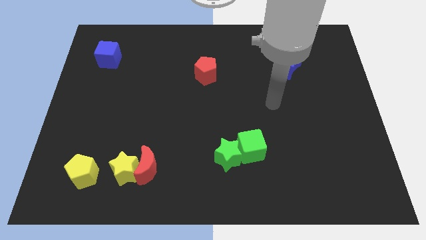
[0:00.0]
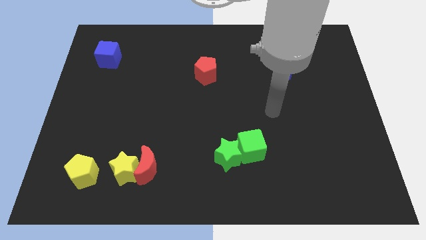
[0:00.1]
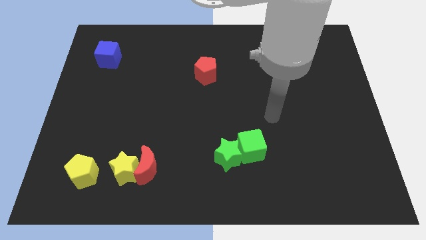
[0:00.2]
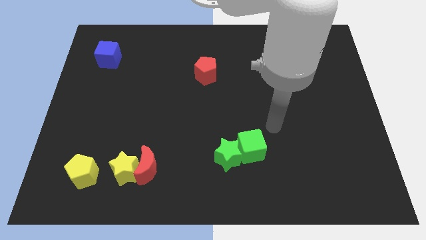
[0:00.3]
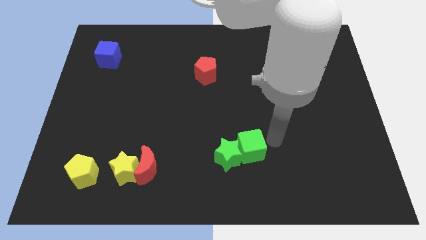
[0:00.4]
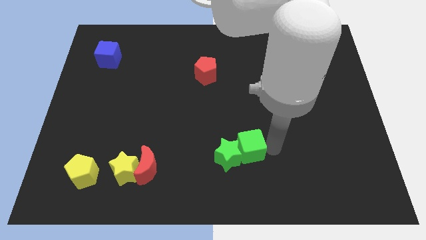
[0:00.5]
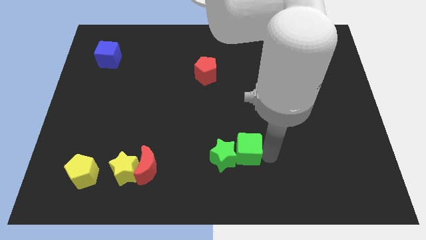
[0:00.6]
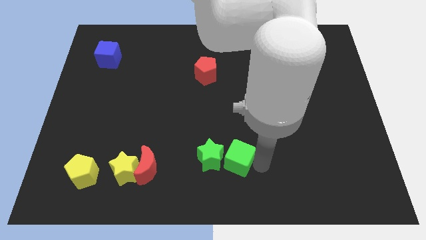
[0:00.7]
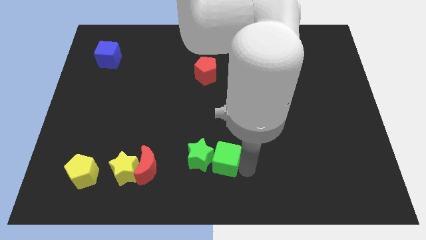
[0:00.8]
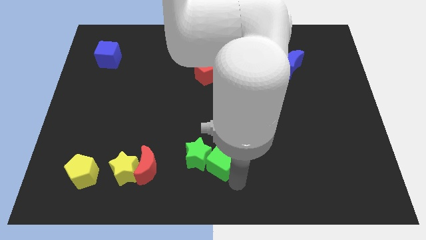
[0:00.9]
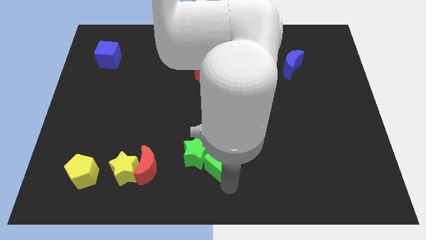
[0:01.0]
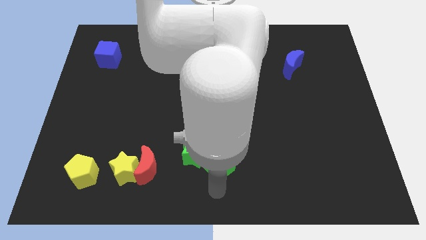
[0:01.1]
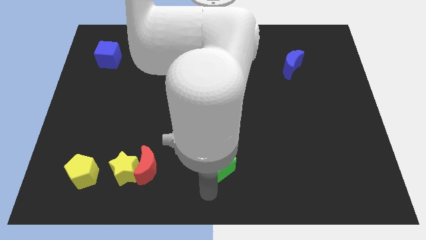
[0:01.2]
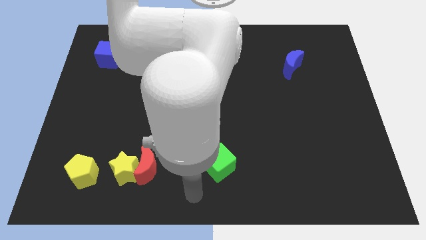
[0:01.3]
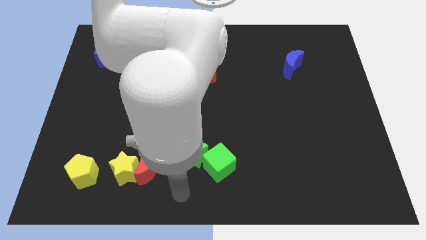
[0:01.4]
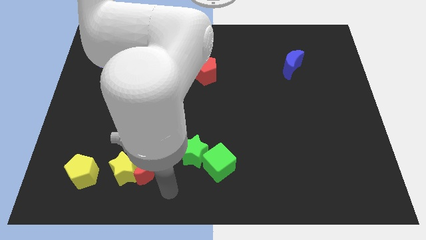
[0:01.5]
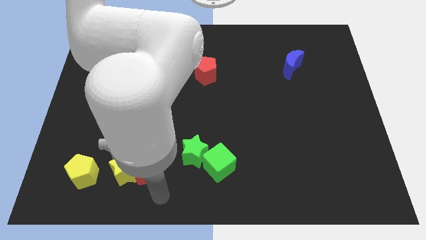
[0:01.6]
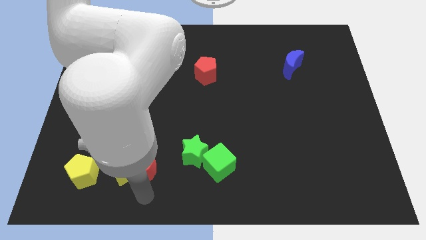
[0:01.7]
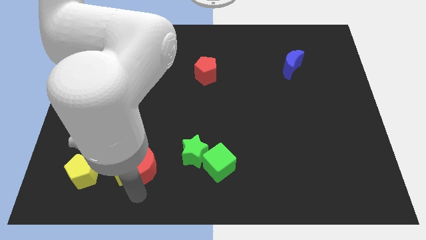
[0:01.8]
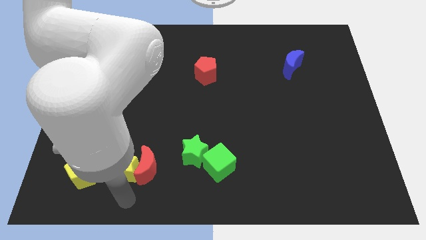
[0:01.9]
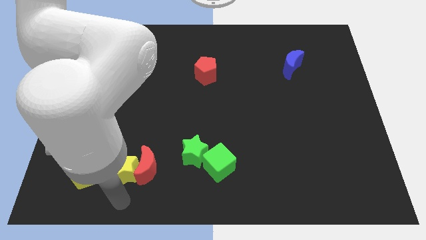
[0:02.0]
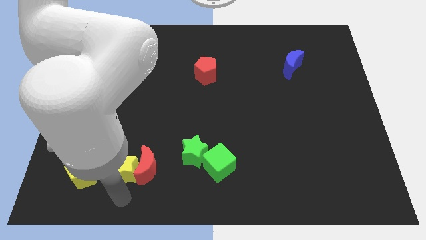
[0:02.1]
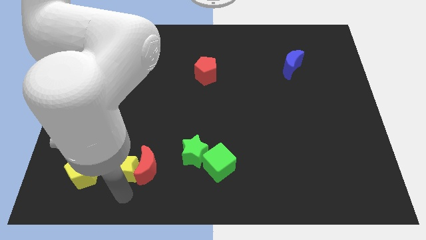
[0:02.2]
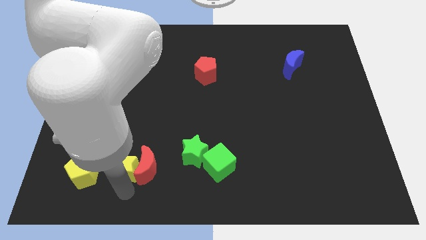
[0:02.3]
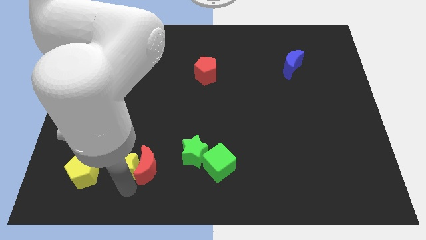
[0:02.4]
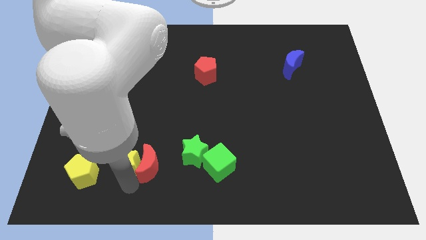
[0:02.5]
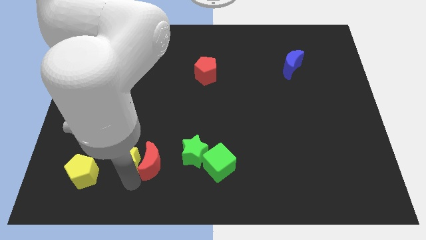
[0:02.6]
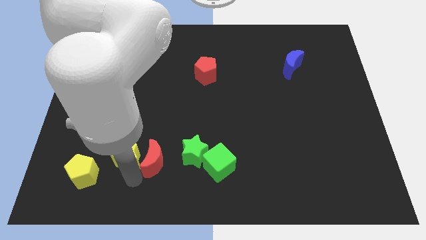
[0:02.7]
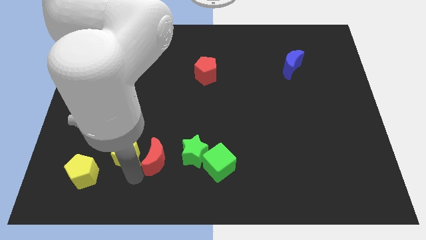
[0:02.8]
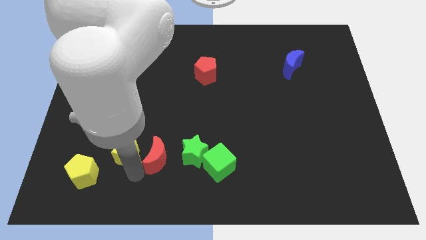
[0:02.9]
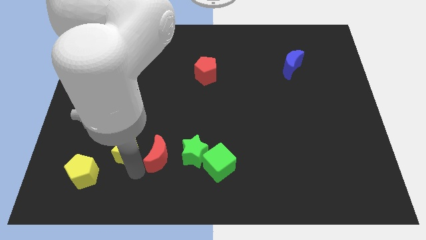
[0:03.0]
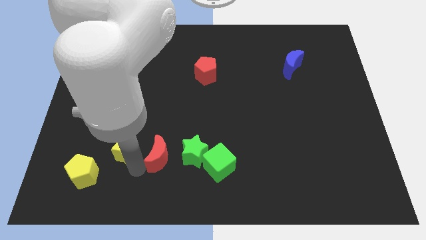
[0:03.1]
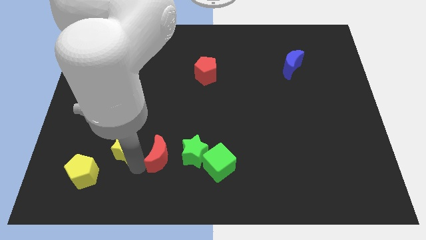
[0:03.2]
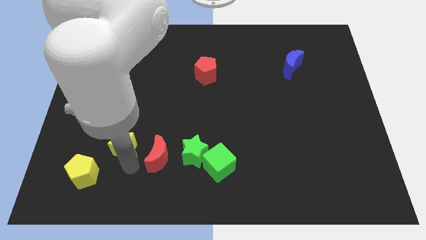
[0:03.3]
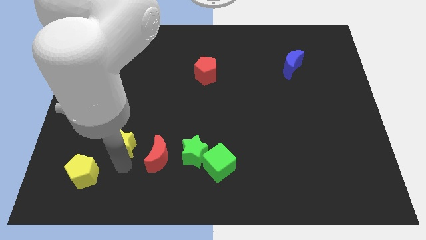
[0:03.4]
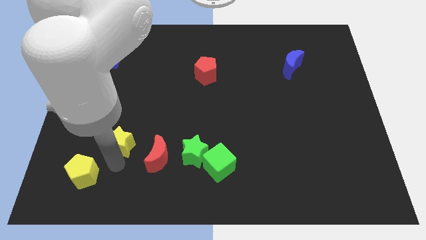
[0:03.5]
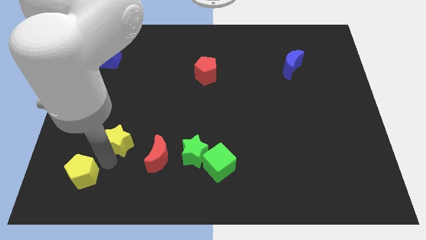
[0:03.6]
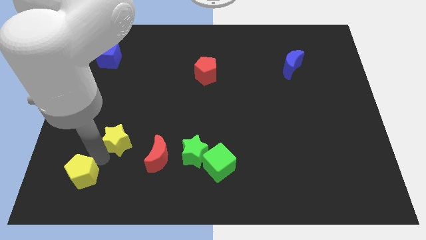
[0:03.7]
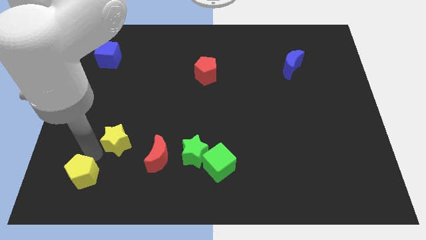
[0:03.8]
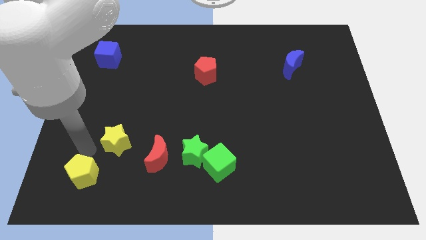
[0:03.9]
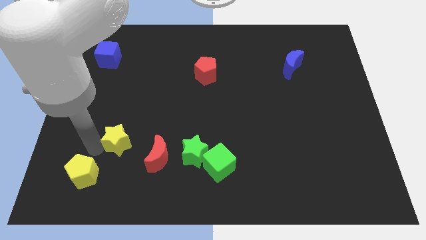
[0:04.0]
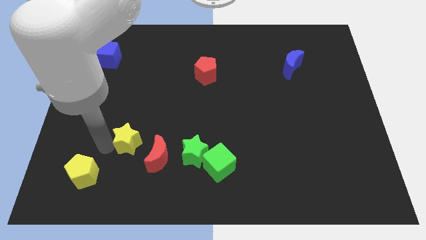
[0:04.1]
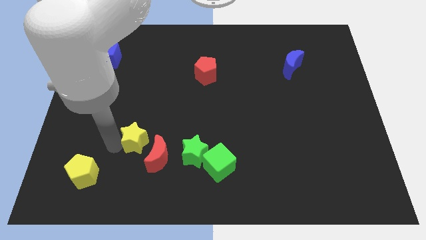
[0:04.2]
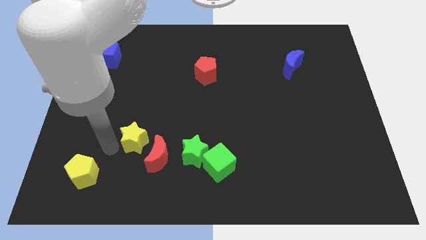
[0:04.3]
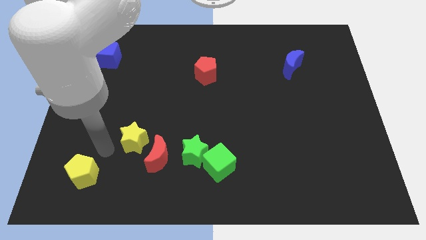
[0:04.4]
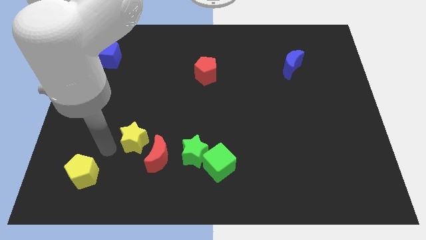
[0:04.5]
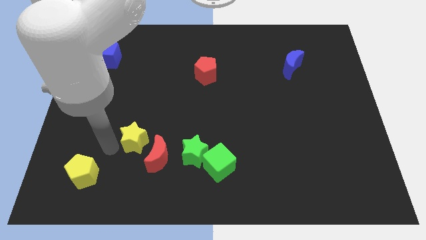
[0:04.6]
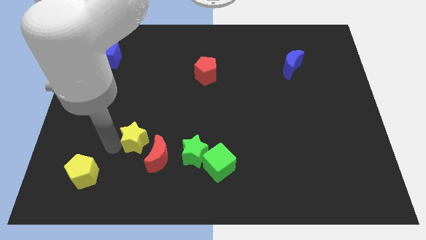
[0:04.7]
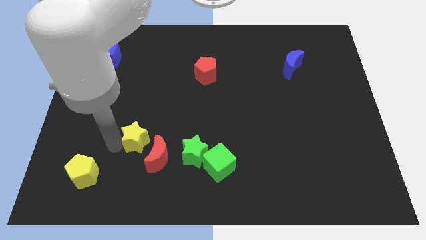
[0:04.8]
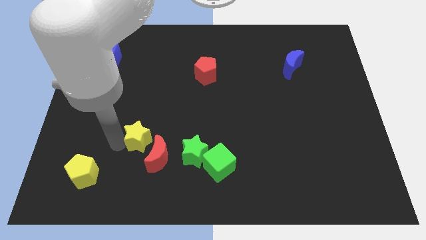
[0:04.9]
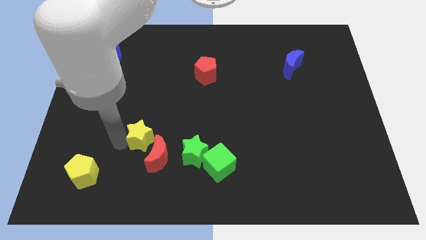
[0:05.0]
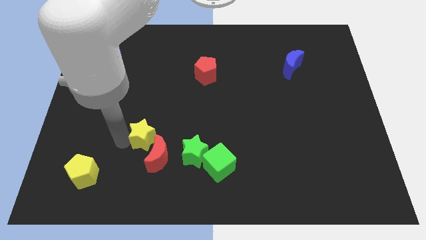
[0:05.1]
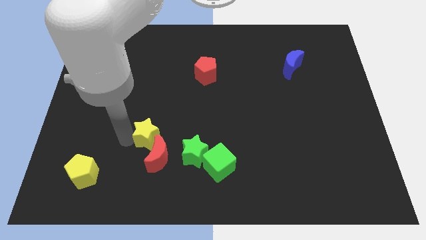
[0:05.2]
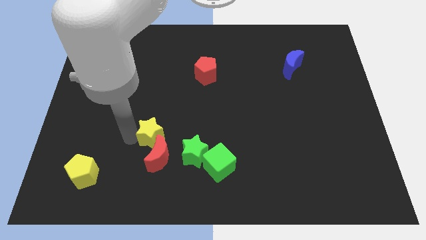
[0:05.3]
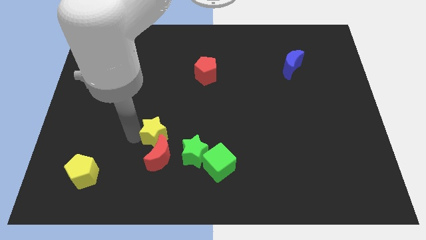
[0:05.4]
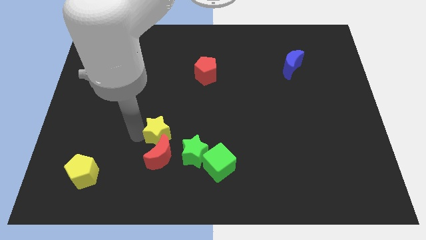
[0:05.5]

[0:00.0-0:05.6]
move the yellow star diagonally up and to the right of the red moon

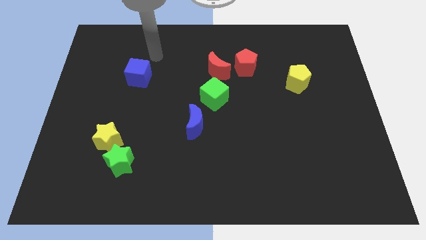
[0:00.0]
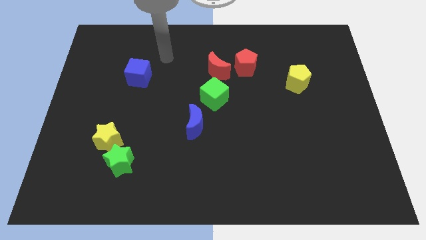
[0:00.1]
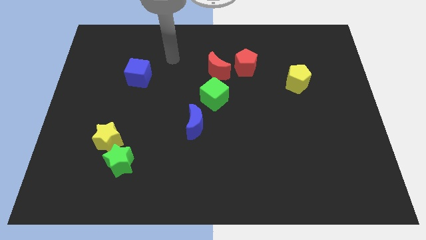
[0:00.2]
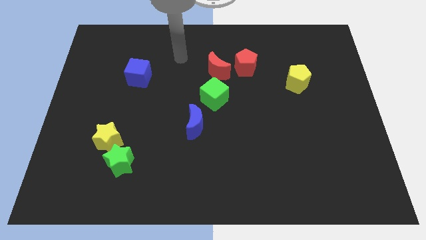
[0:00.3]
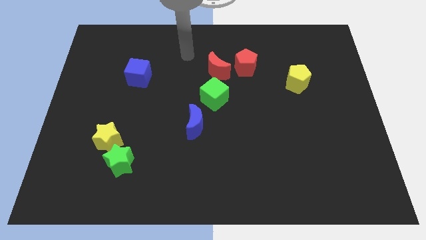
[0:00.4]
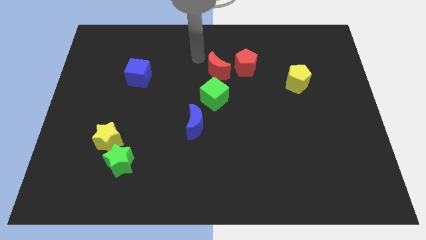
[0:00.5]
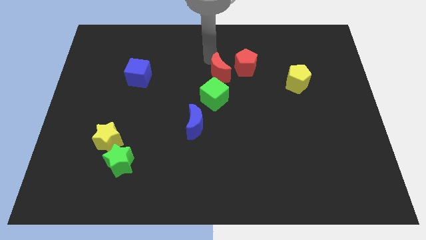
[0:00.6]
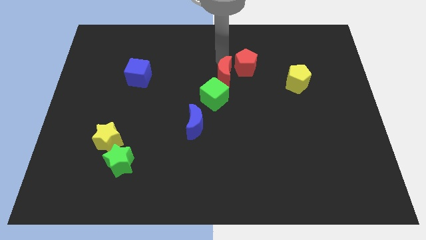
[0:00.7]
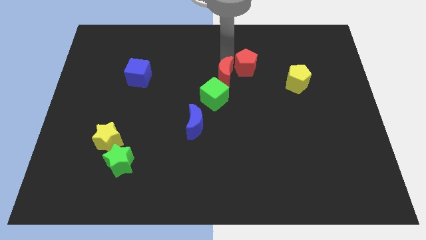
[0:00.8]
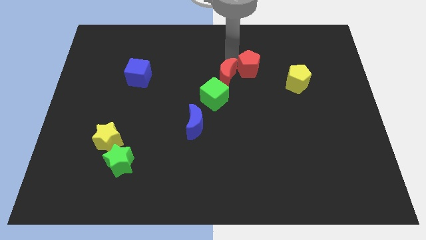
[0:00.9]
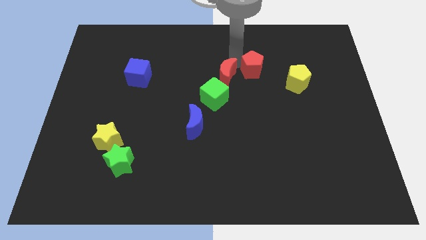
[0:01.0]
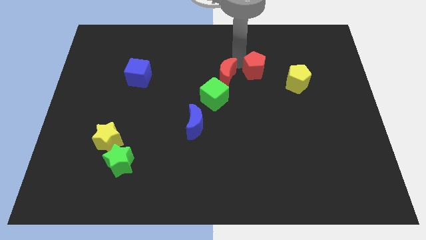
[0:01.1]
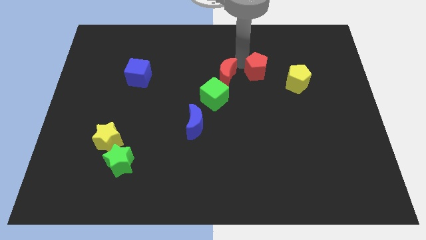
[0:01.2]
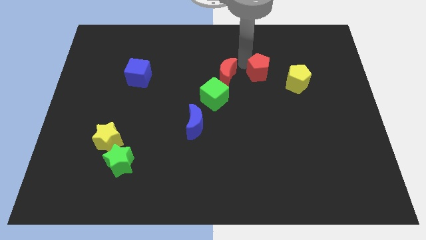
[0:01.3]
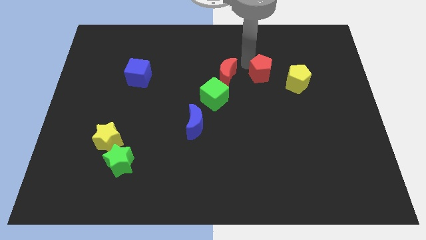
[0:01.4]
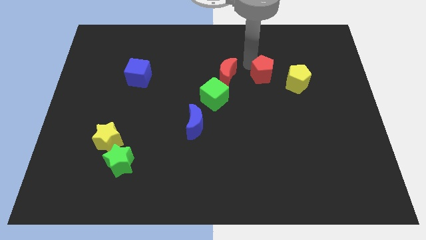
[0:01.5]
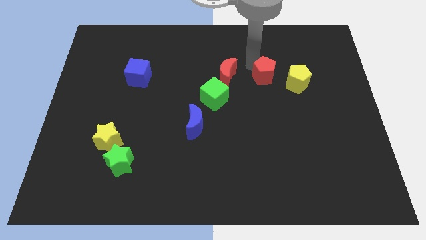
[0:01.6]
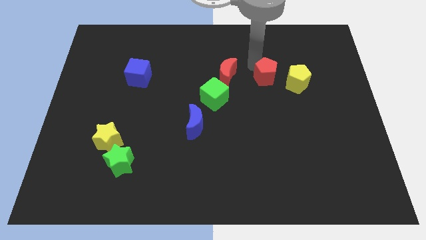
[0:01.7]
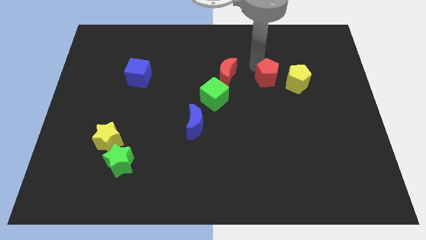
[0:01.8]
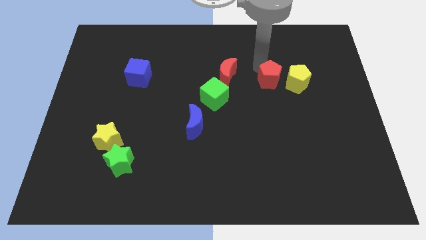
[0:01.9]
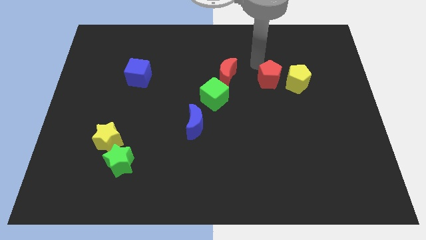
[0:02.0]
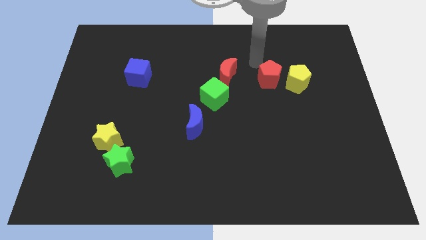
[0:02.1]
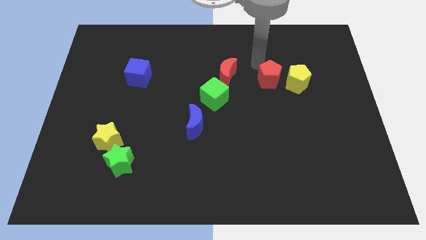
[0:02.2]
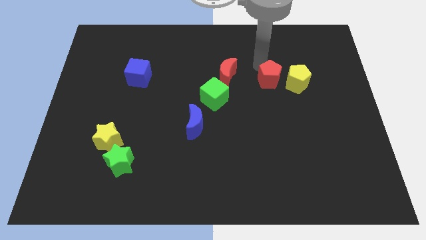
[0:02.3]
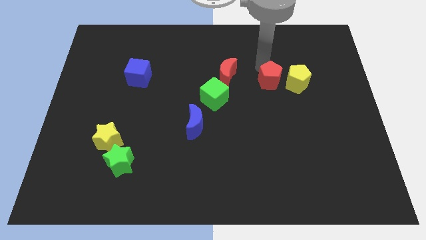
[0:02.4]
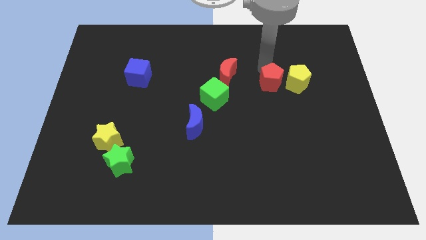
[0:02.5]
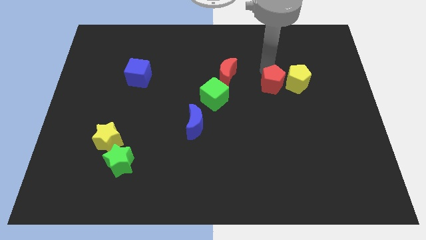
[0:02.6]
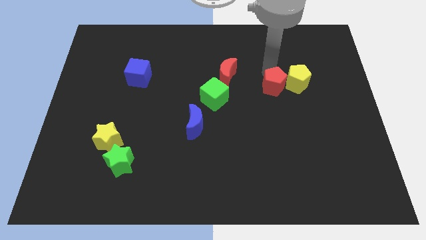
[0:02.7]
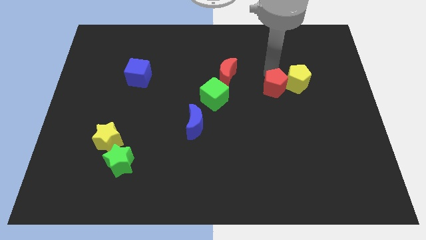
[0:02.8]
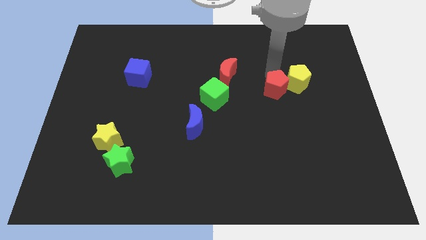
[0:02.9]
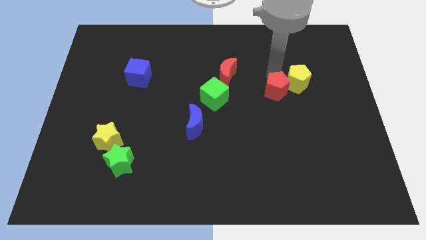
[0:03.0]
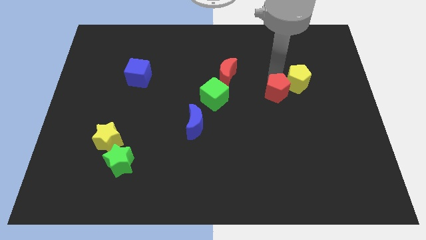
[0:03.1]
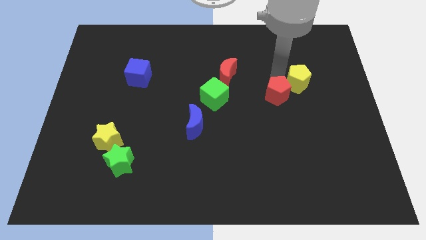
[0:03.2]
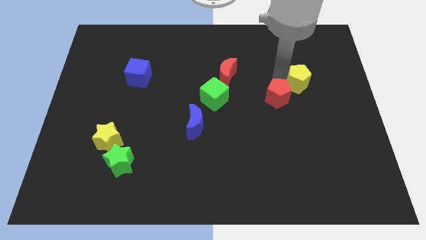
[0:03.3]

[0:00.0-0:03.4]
move the red pentagon below the yellow pentagon

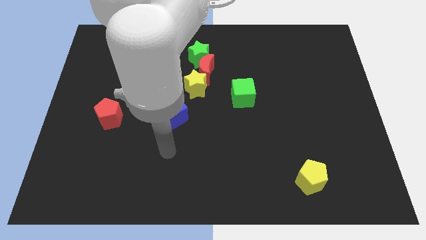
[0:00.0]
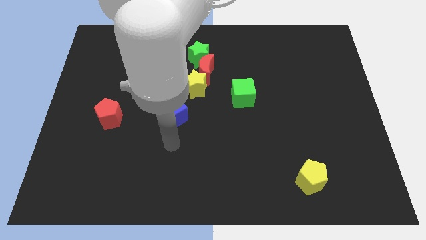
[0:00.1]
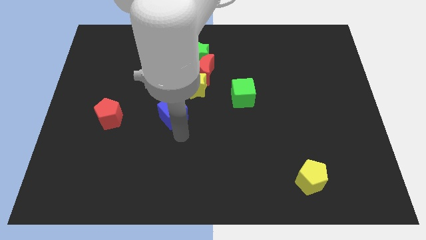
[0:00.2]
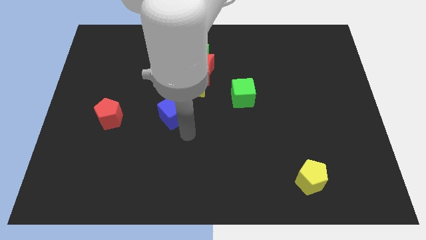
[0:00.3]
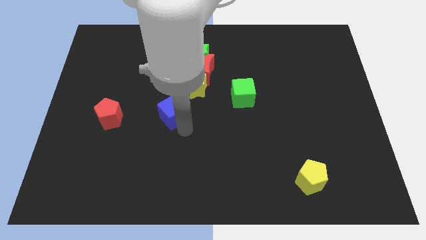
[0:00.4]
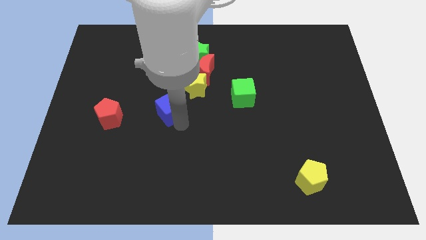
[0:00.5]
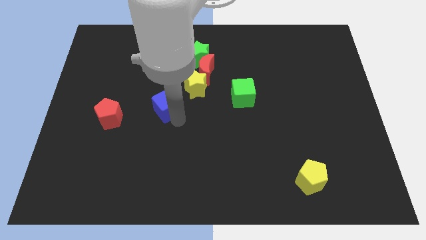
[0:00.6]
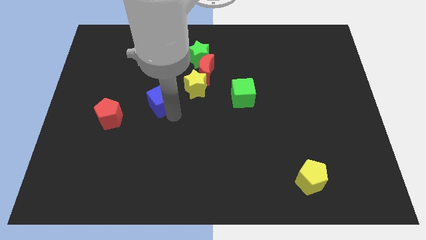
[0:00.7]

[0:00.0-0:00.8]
move the blue cube to the left of the yellow star
